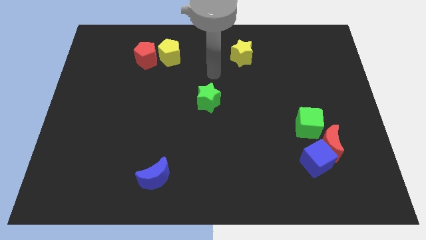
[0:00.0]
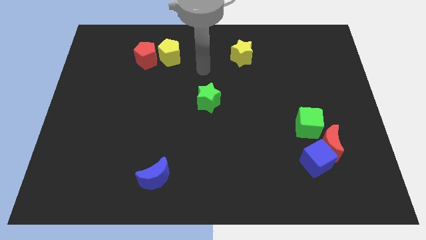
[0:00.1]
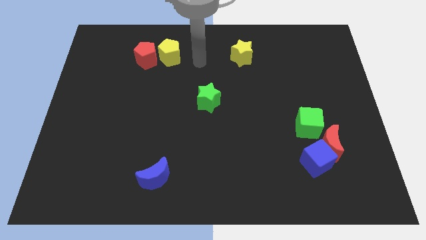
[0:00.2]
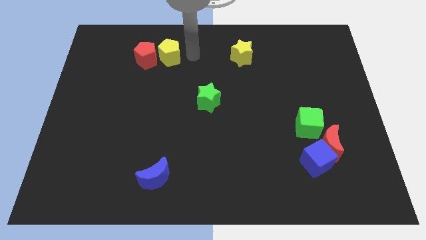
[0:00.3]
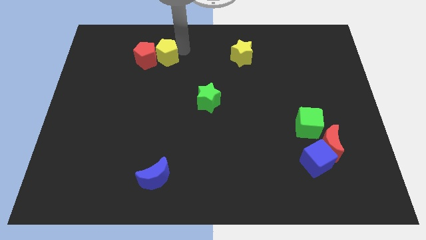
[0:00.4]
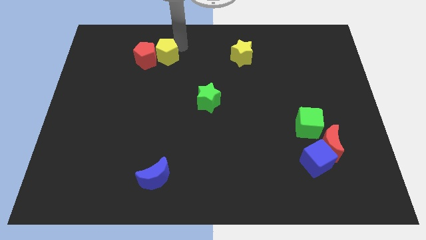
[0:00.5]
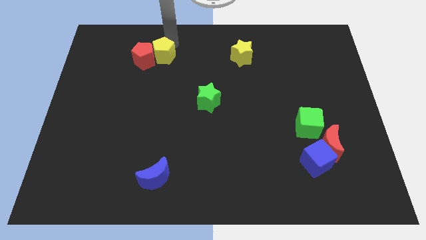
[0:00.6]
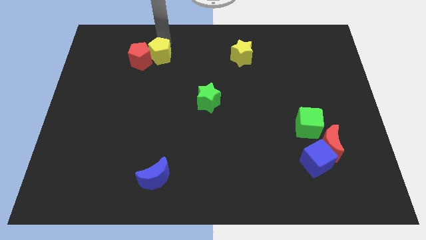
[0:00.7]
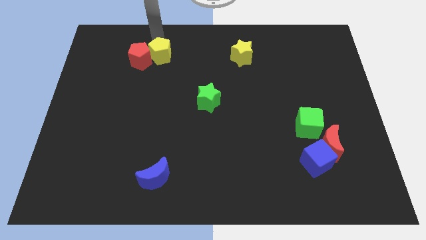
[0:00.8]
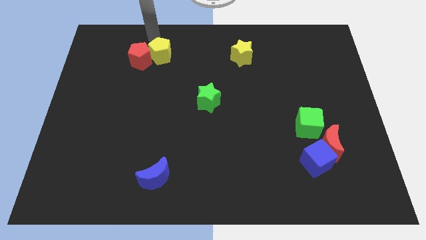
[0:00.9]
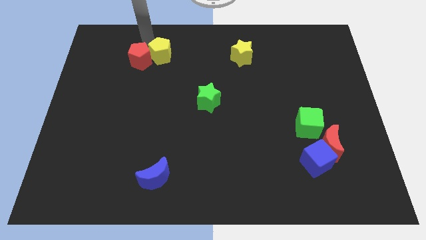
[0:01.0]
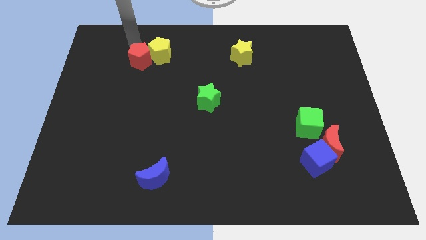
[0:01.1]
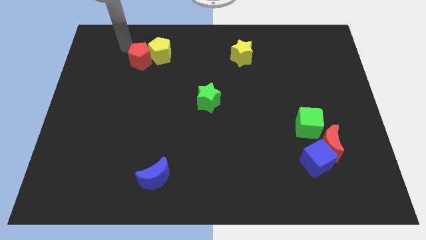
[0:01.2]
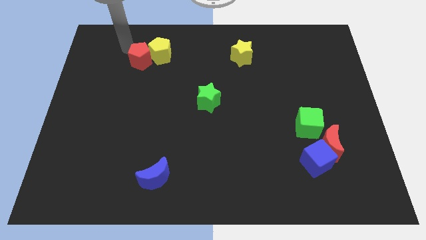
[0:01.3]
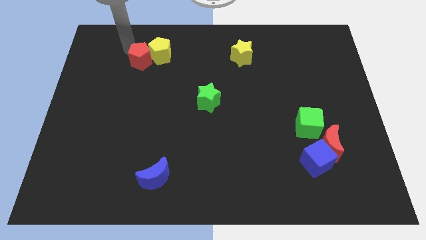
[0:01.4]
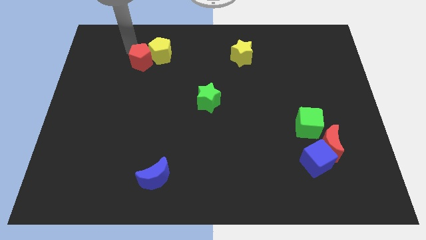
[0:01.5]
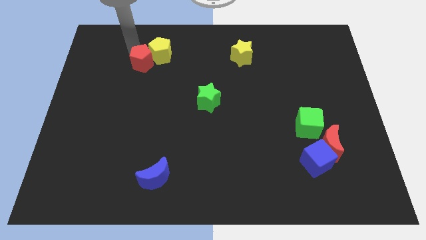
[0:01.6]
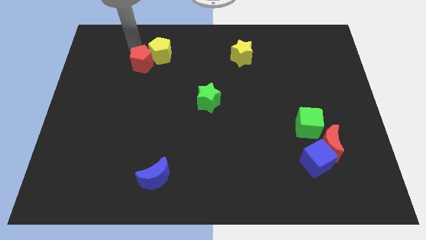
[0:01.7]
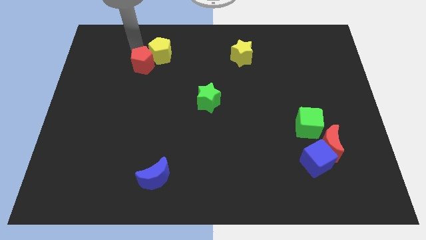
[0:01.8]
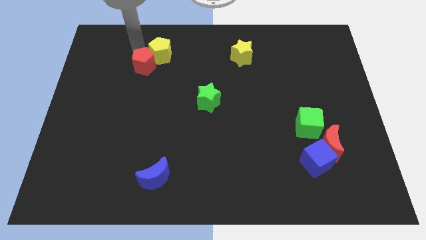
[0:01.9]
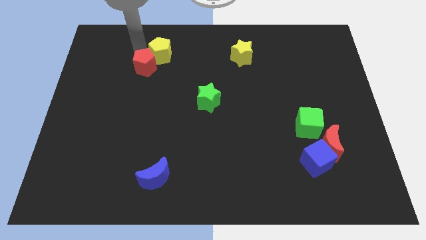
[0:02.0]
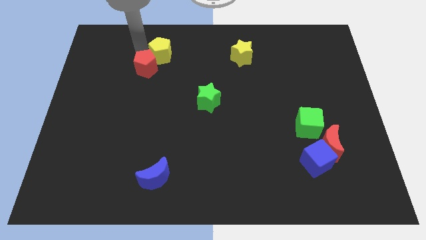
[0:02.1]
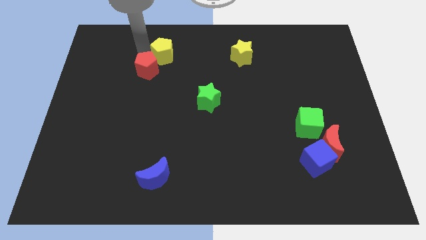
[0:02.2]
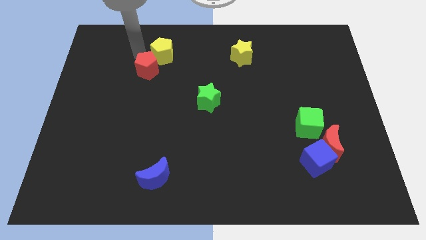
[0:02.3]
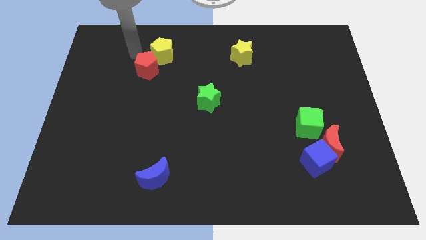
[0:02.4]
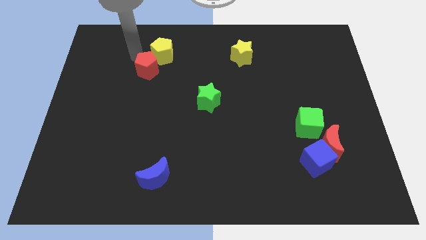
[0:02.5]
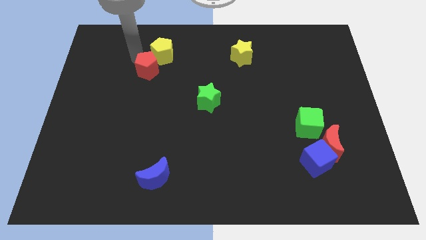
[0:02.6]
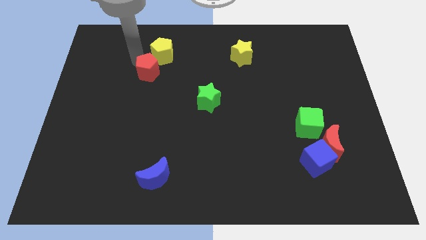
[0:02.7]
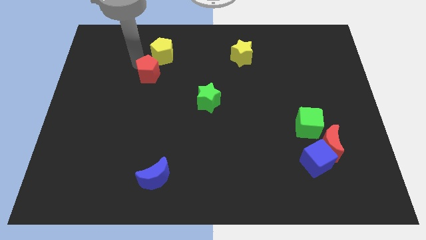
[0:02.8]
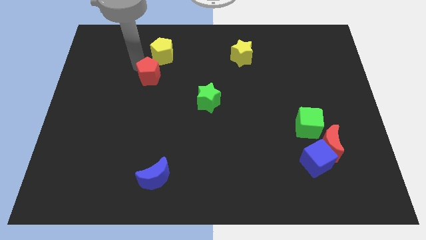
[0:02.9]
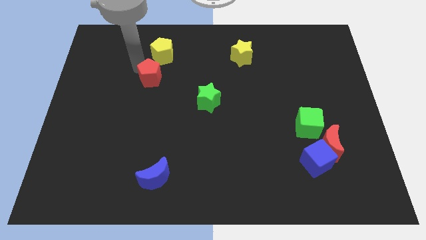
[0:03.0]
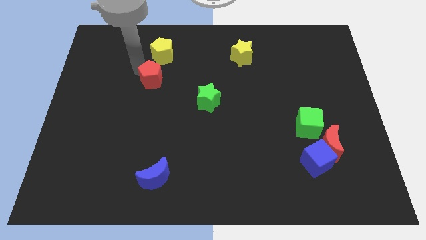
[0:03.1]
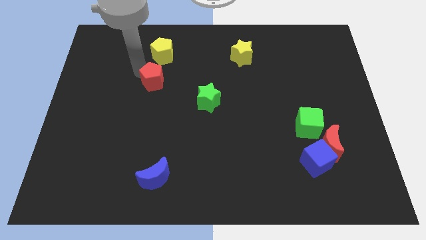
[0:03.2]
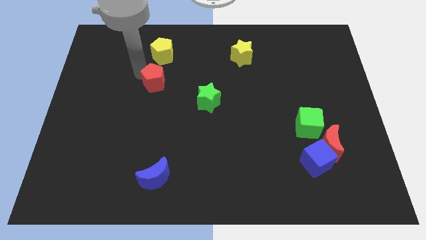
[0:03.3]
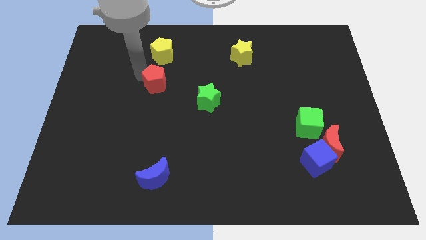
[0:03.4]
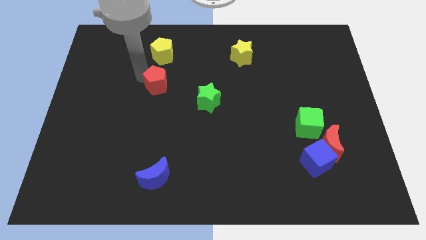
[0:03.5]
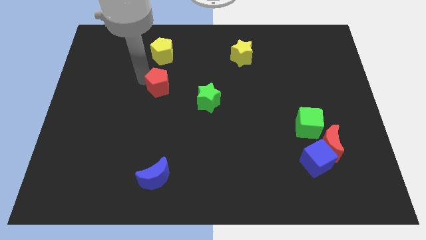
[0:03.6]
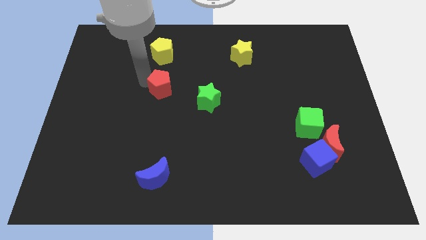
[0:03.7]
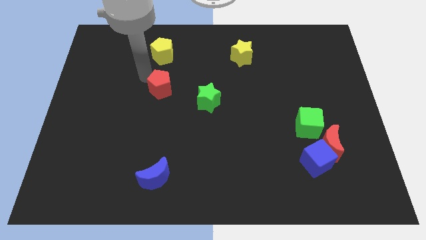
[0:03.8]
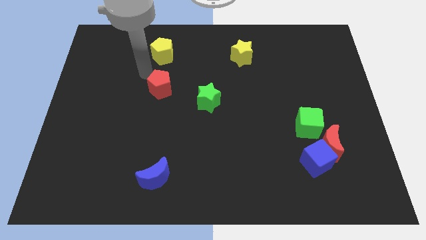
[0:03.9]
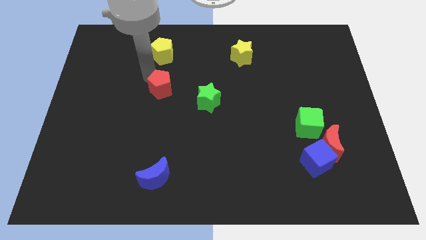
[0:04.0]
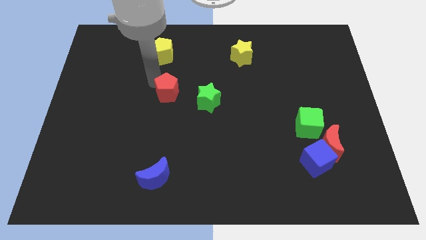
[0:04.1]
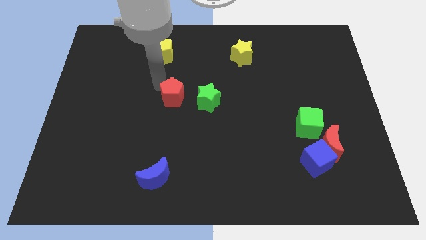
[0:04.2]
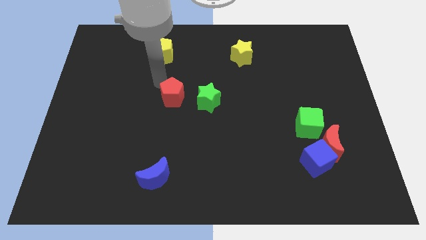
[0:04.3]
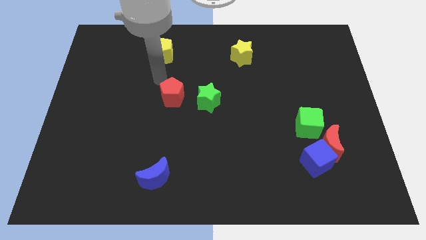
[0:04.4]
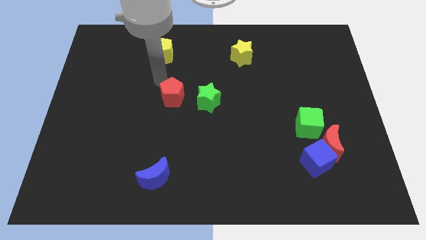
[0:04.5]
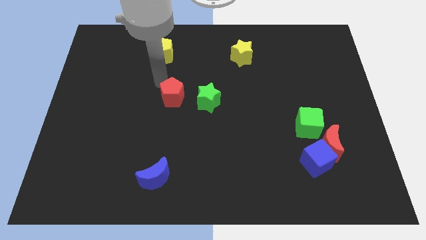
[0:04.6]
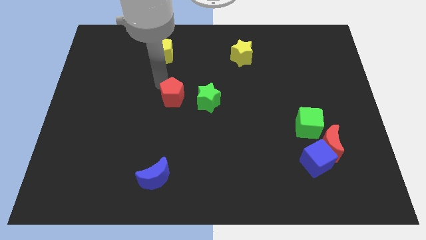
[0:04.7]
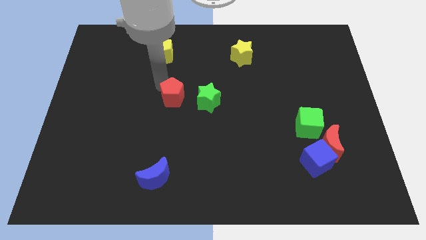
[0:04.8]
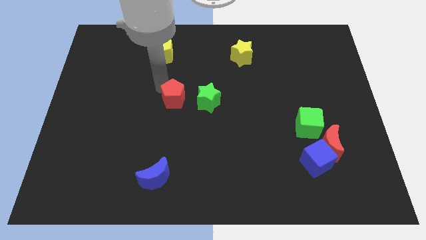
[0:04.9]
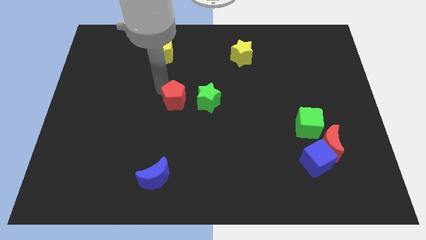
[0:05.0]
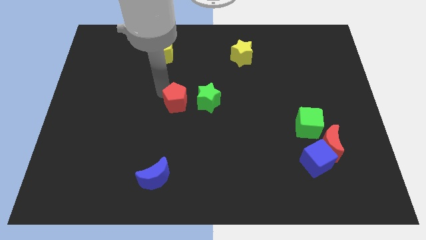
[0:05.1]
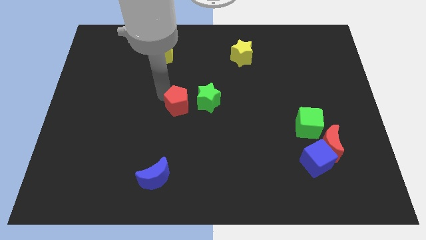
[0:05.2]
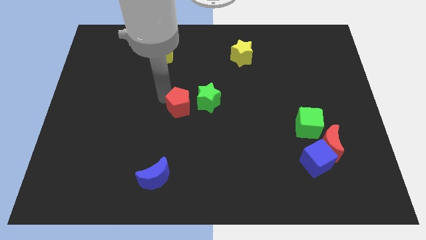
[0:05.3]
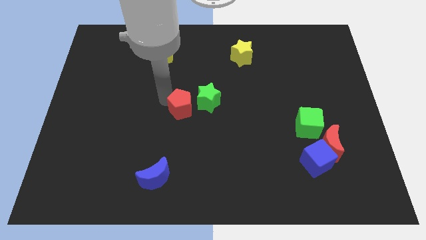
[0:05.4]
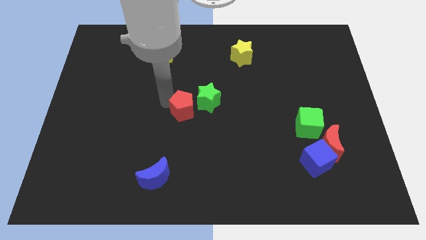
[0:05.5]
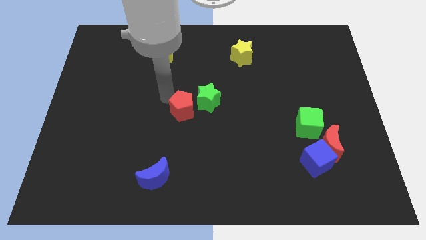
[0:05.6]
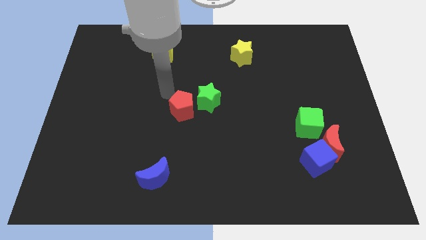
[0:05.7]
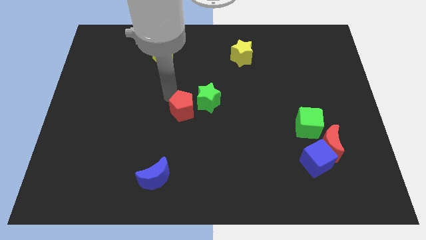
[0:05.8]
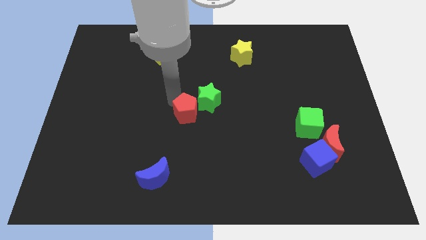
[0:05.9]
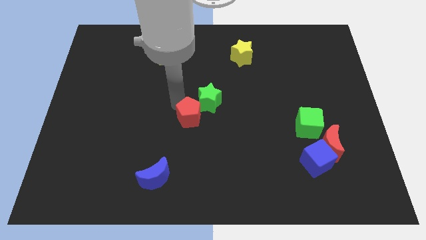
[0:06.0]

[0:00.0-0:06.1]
put the red pentagon below the green star
